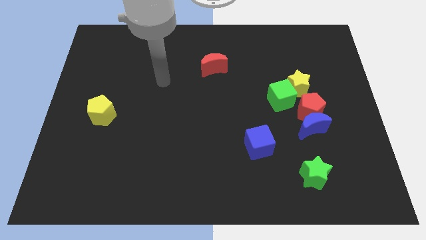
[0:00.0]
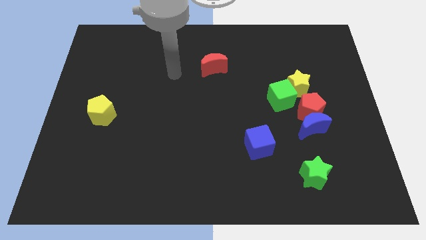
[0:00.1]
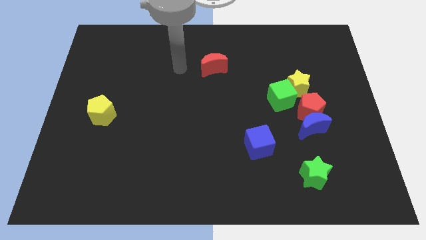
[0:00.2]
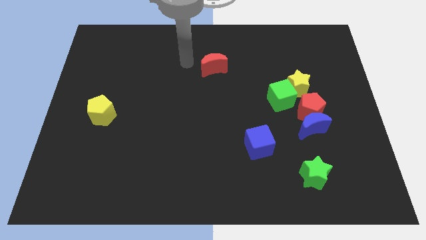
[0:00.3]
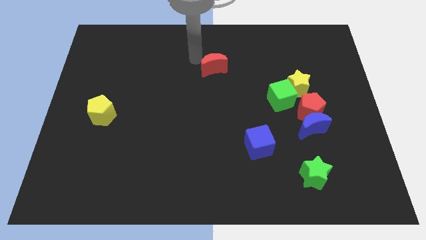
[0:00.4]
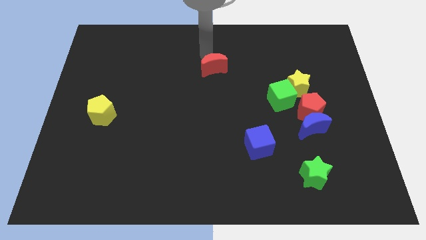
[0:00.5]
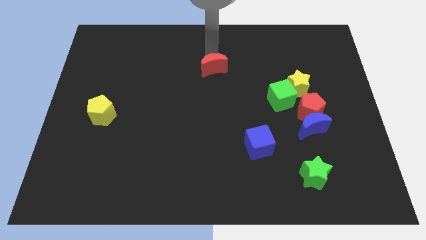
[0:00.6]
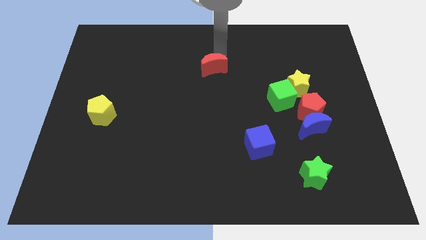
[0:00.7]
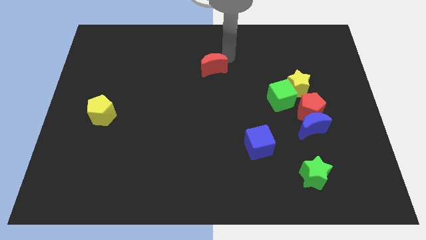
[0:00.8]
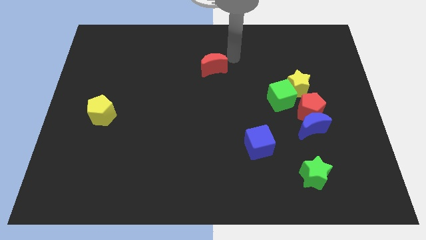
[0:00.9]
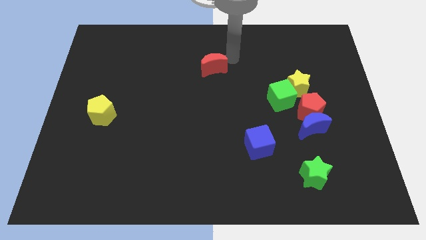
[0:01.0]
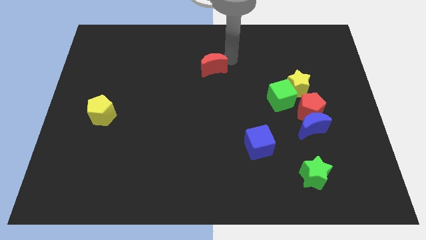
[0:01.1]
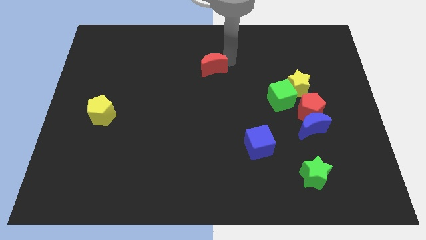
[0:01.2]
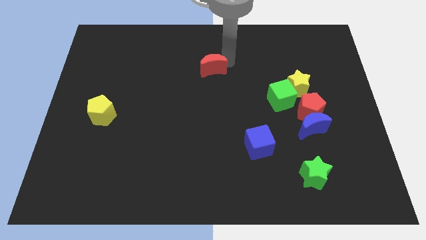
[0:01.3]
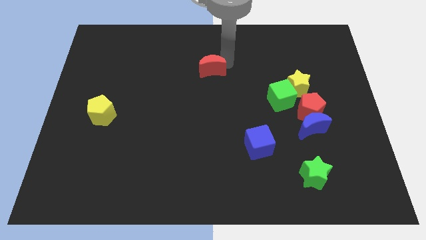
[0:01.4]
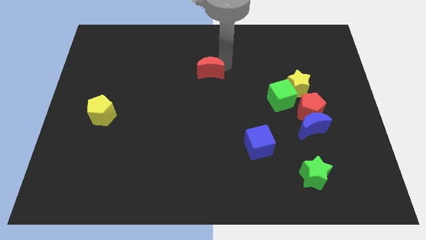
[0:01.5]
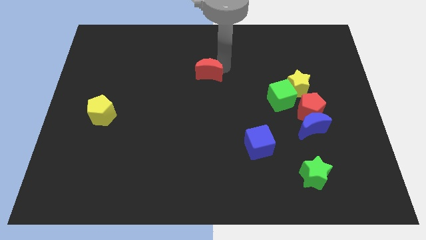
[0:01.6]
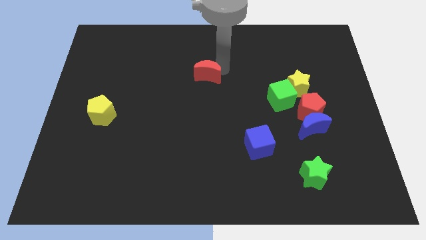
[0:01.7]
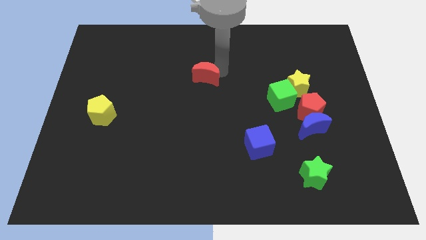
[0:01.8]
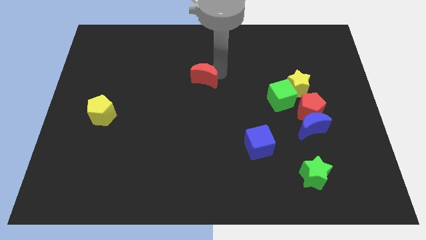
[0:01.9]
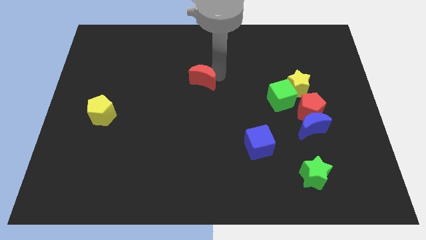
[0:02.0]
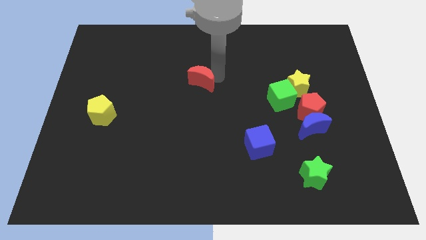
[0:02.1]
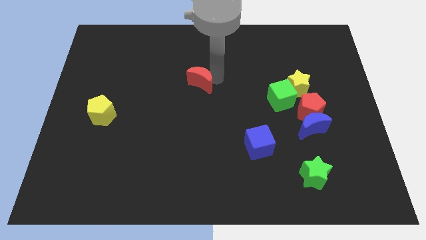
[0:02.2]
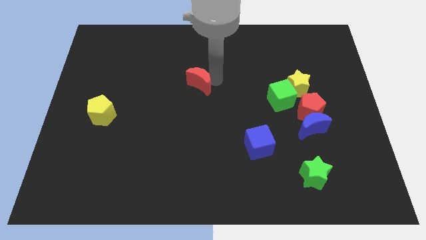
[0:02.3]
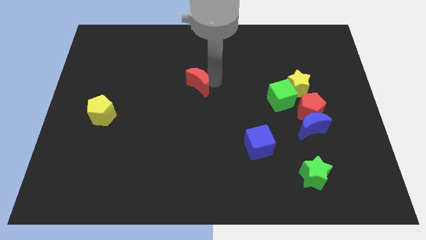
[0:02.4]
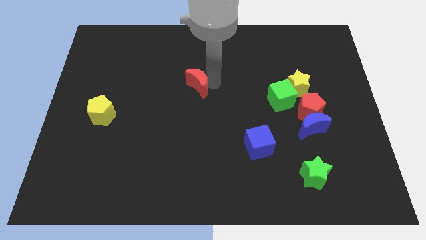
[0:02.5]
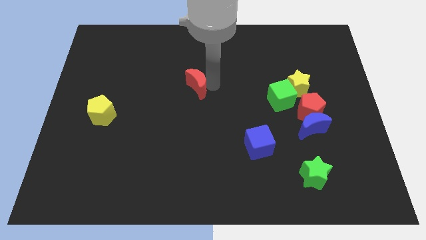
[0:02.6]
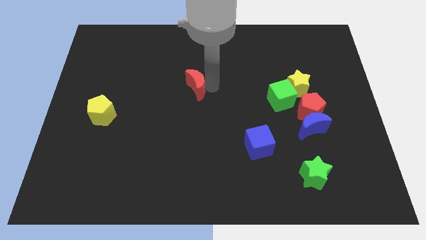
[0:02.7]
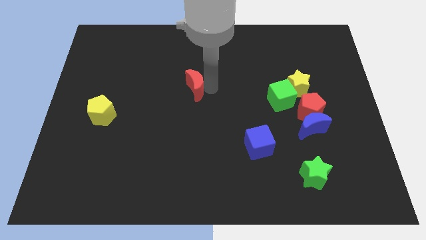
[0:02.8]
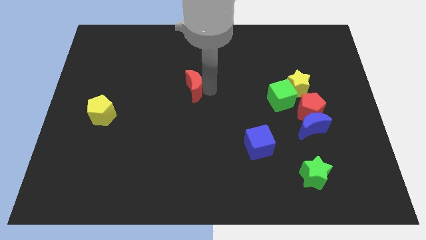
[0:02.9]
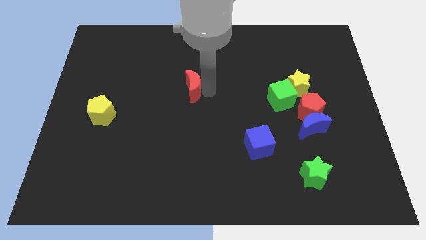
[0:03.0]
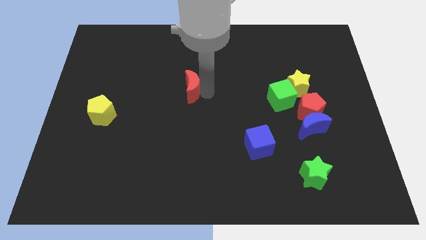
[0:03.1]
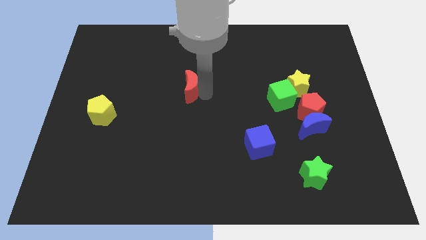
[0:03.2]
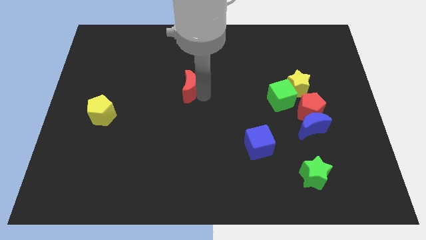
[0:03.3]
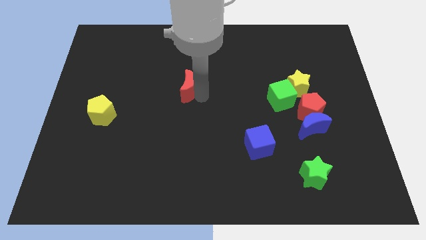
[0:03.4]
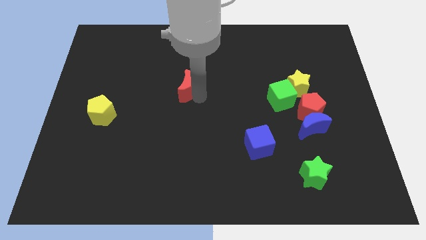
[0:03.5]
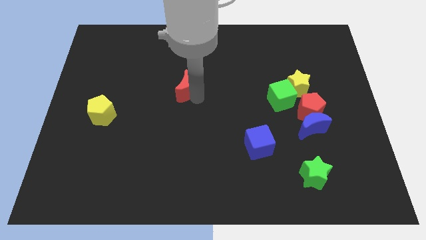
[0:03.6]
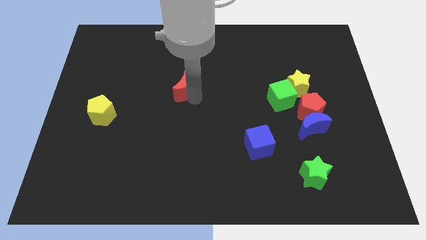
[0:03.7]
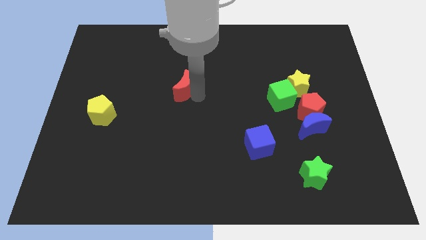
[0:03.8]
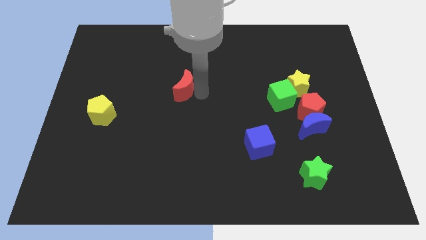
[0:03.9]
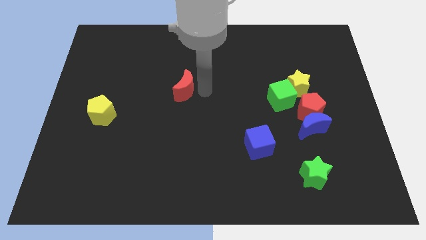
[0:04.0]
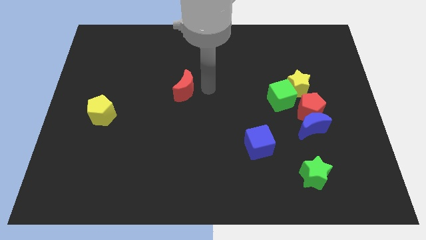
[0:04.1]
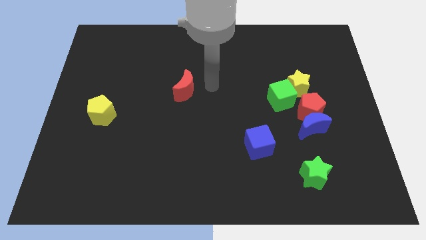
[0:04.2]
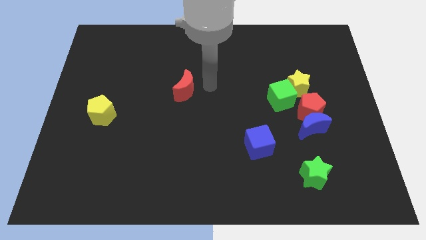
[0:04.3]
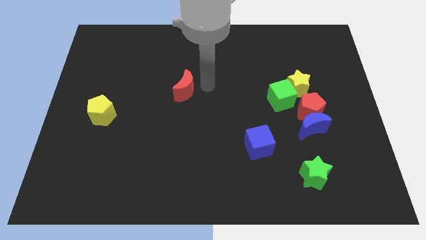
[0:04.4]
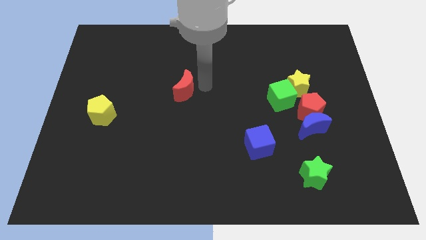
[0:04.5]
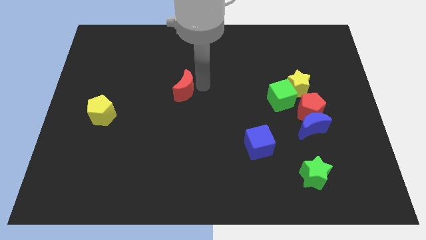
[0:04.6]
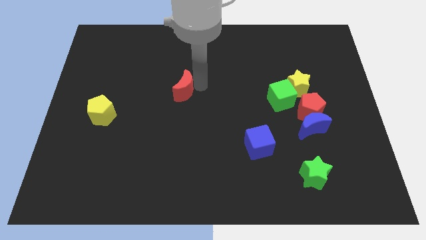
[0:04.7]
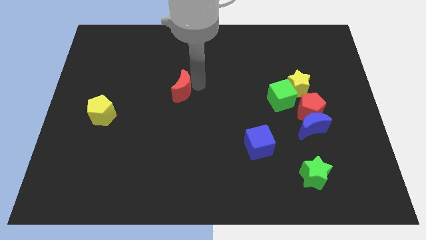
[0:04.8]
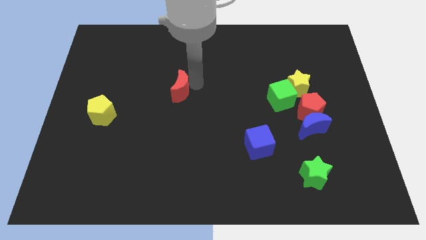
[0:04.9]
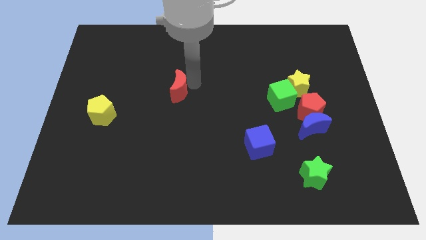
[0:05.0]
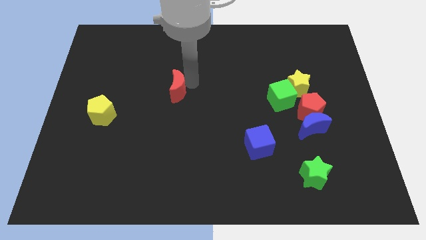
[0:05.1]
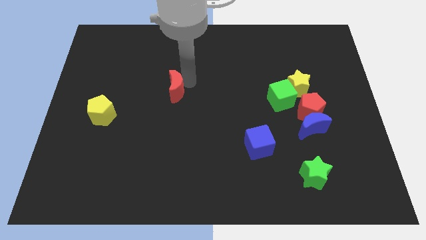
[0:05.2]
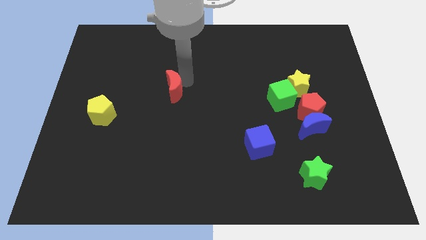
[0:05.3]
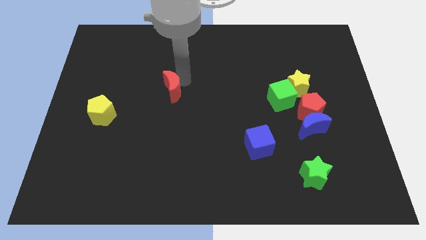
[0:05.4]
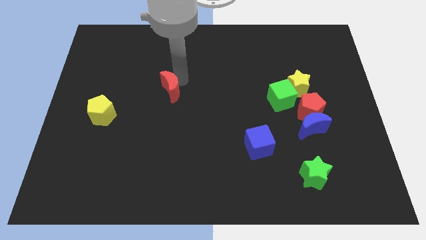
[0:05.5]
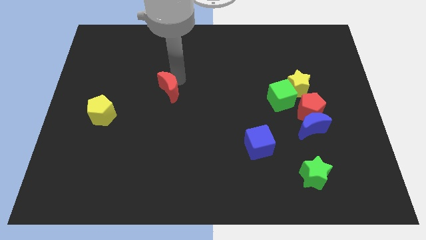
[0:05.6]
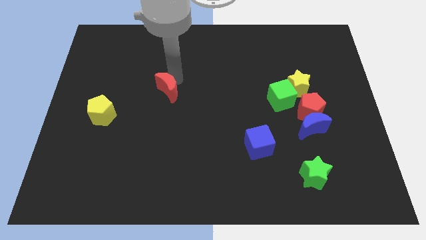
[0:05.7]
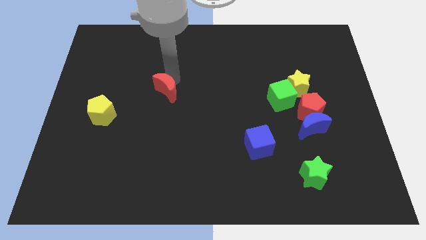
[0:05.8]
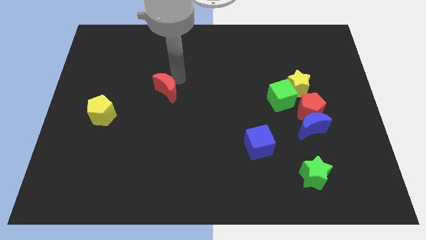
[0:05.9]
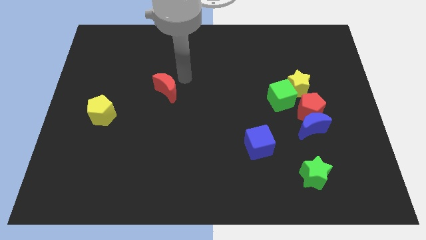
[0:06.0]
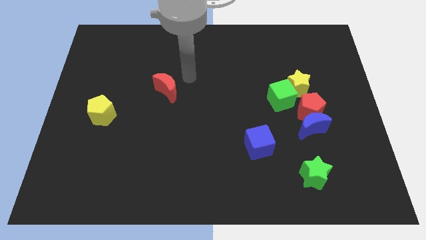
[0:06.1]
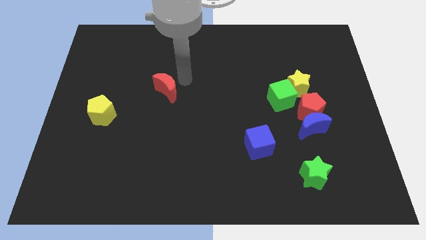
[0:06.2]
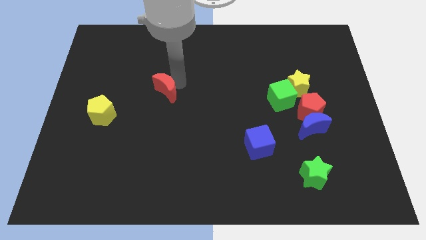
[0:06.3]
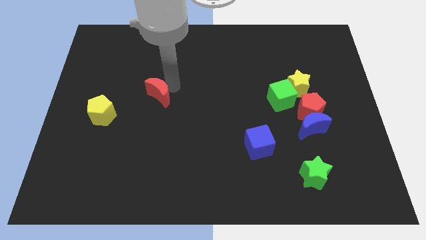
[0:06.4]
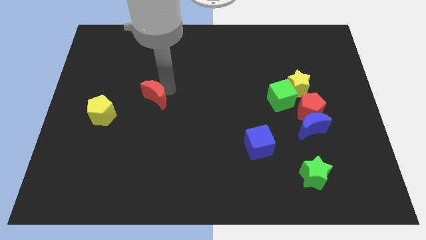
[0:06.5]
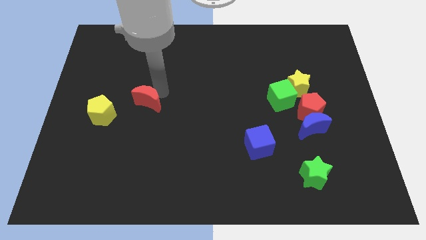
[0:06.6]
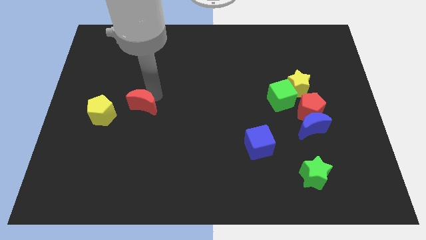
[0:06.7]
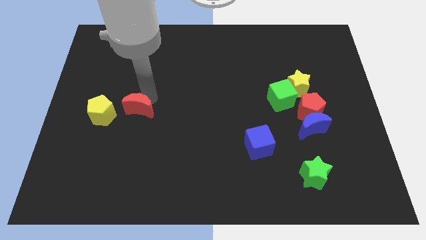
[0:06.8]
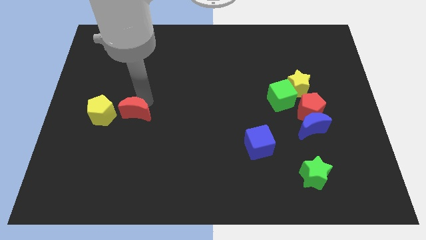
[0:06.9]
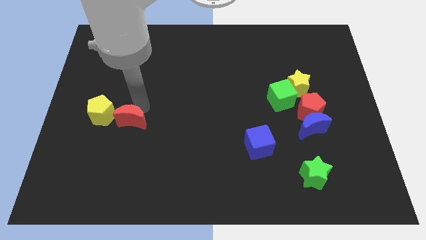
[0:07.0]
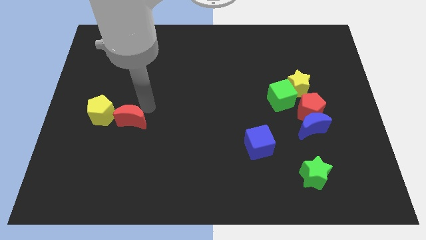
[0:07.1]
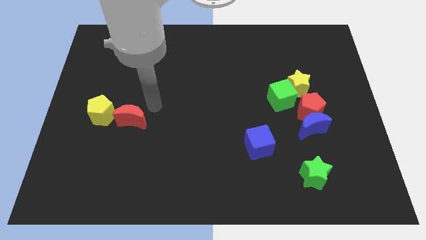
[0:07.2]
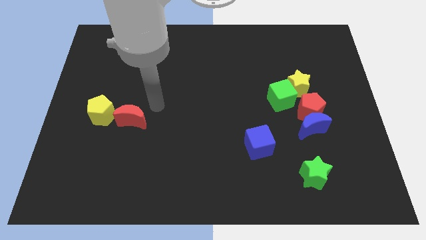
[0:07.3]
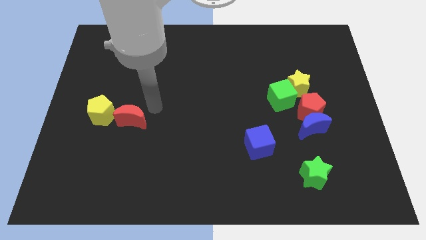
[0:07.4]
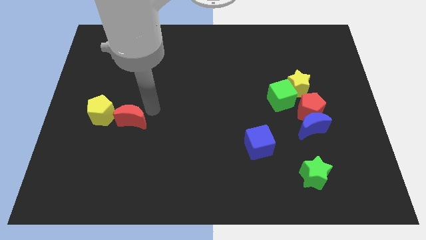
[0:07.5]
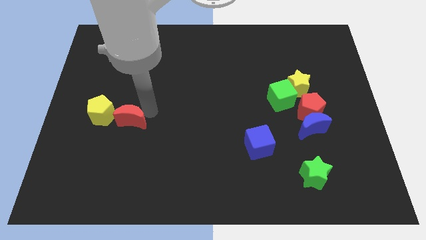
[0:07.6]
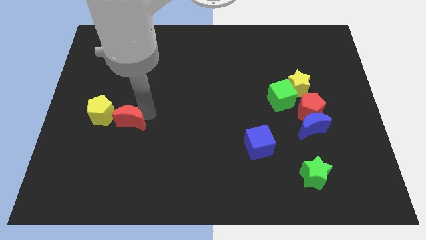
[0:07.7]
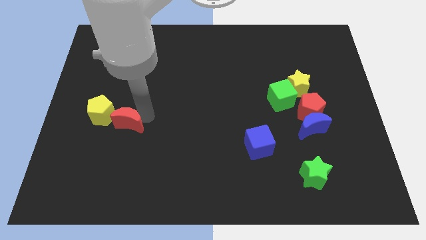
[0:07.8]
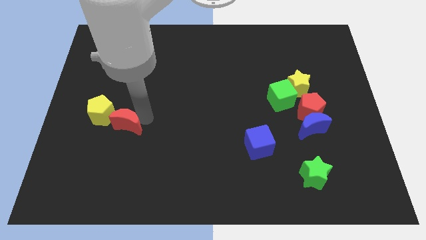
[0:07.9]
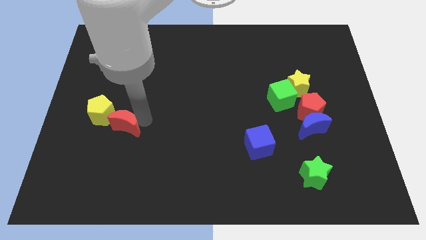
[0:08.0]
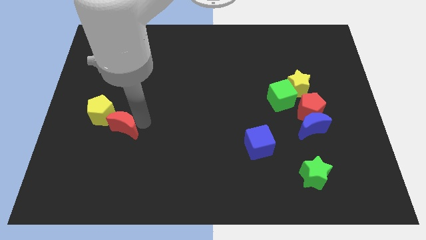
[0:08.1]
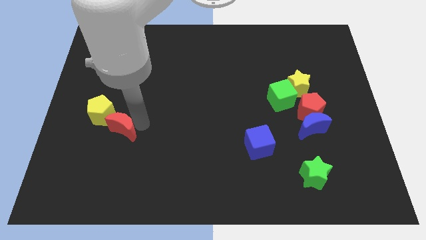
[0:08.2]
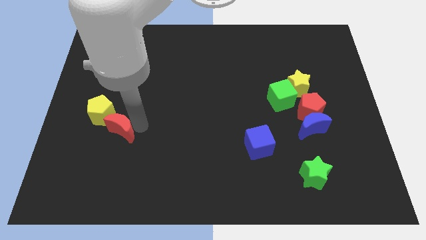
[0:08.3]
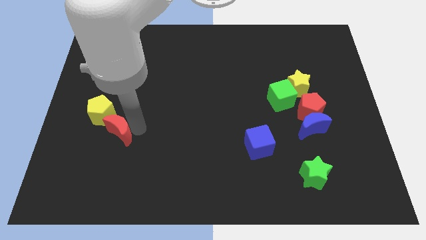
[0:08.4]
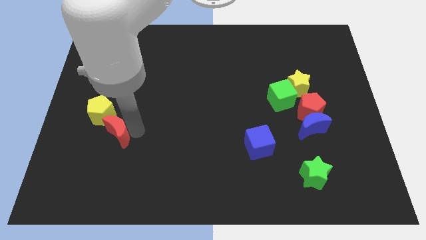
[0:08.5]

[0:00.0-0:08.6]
push the red moon to the bottom of the yellow pentagon
